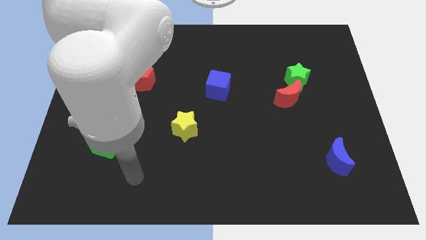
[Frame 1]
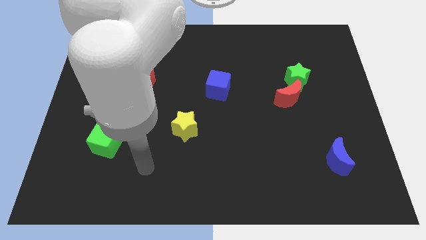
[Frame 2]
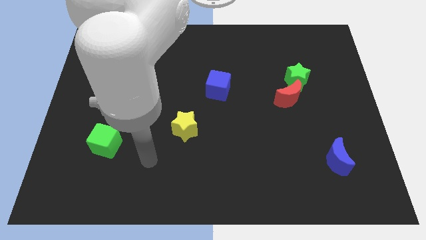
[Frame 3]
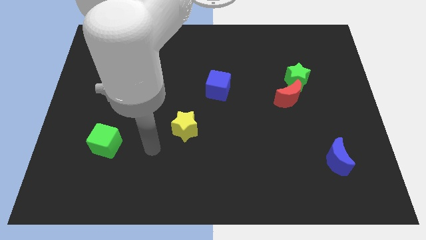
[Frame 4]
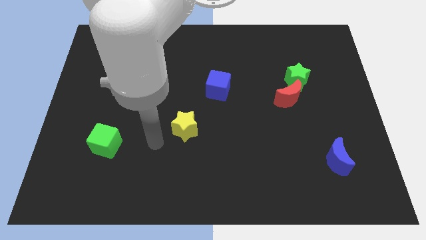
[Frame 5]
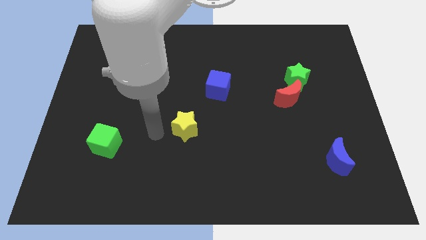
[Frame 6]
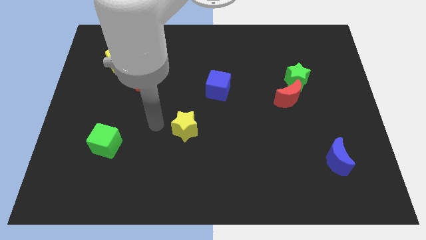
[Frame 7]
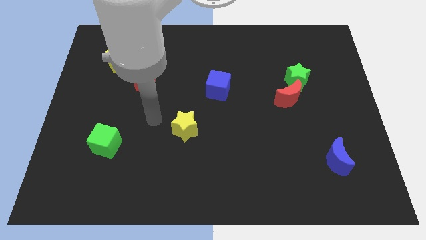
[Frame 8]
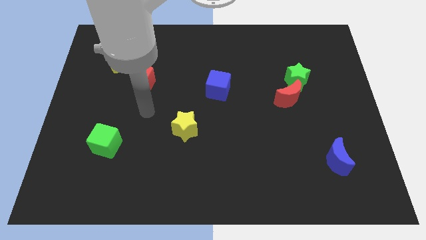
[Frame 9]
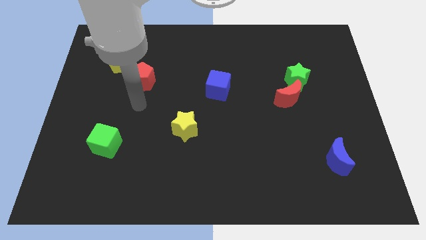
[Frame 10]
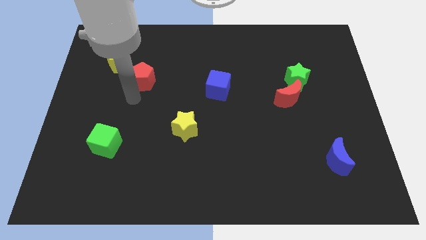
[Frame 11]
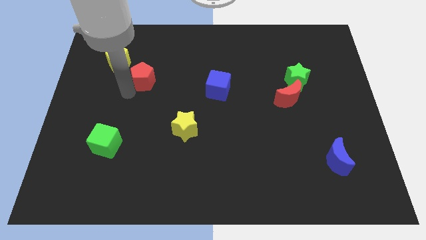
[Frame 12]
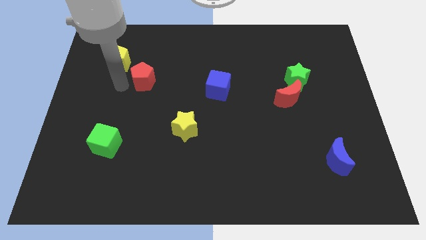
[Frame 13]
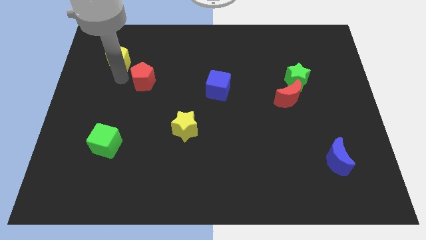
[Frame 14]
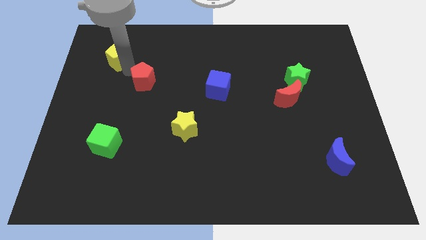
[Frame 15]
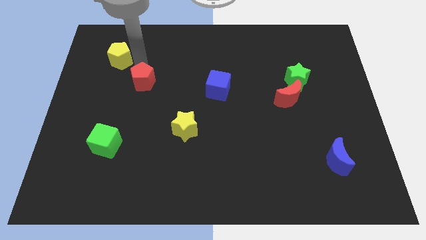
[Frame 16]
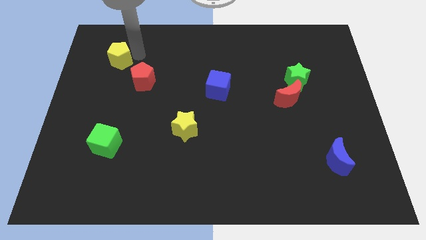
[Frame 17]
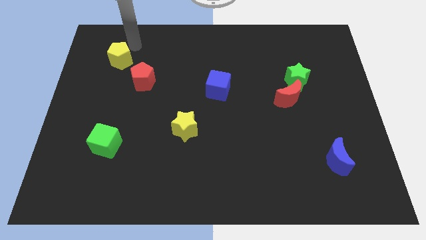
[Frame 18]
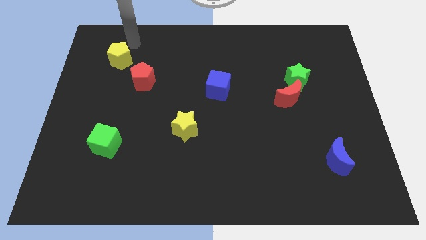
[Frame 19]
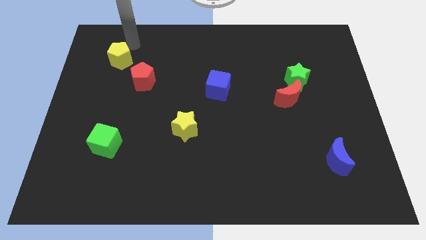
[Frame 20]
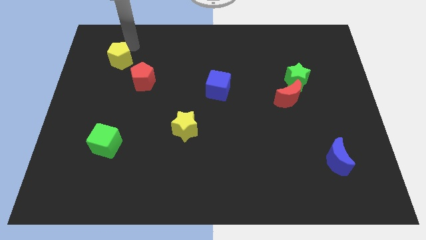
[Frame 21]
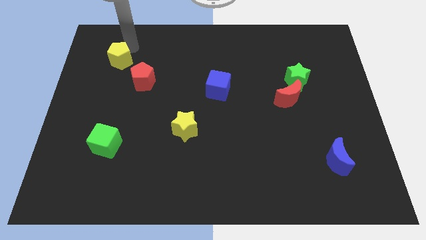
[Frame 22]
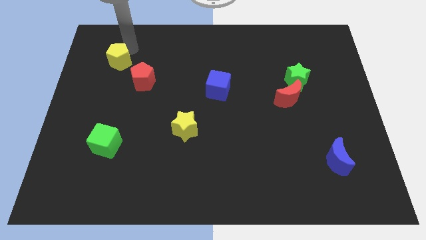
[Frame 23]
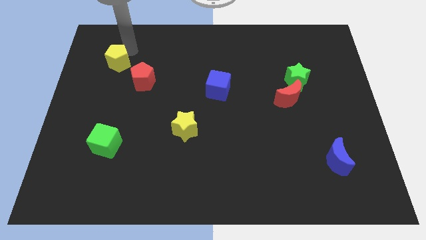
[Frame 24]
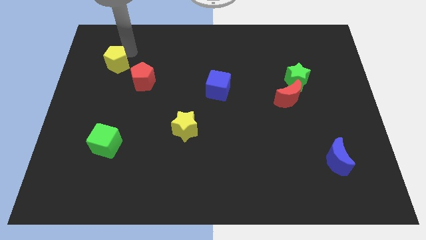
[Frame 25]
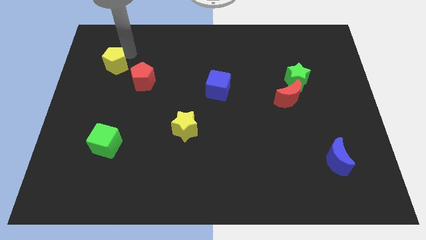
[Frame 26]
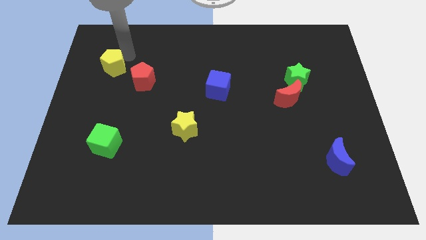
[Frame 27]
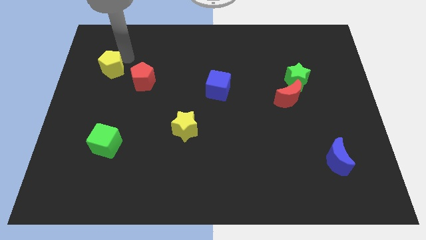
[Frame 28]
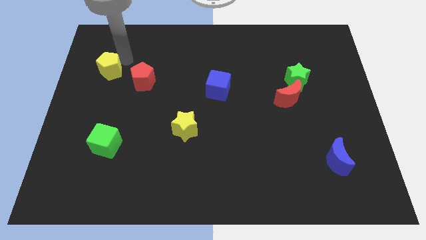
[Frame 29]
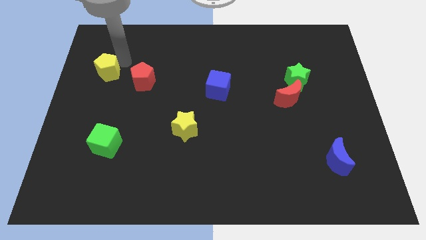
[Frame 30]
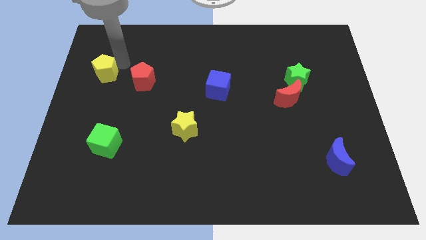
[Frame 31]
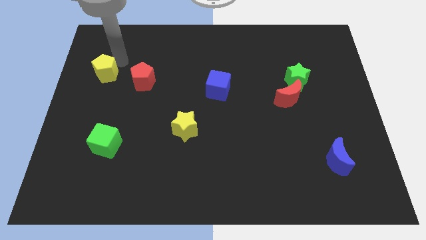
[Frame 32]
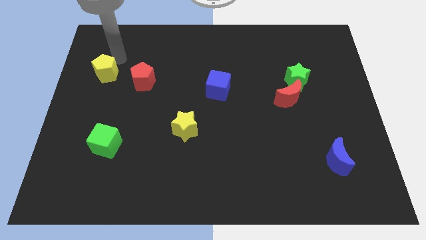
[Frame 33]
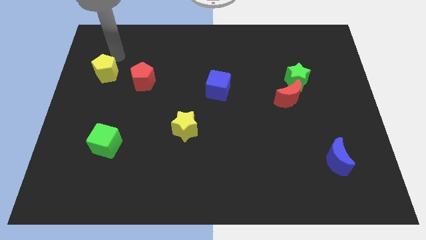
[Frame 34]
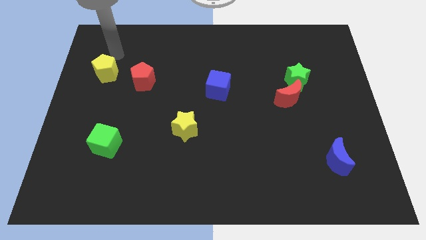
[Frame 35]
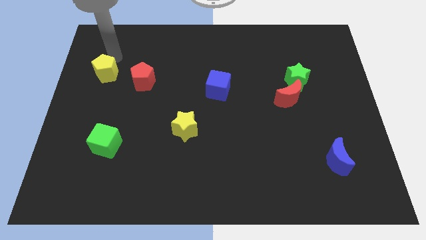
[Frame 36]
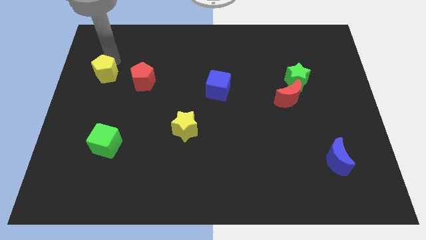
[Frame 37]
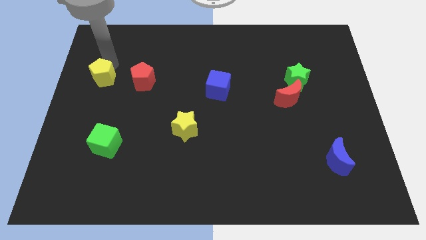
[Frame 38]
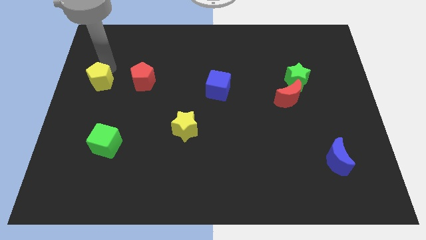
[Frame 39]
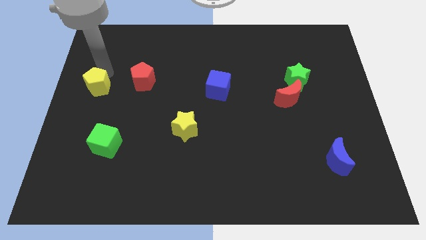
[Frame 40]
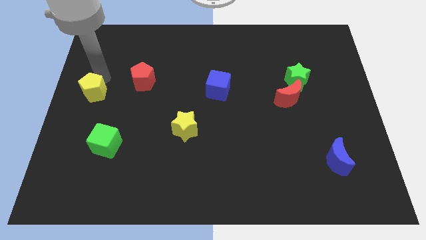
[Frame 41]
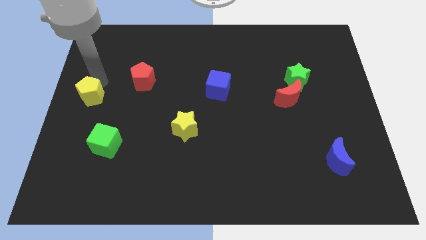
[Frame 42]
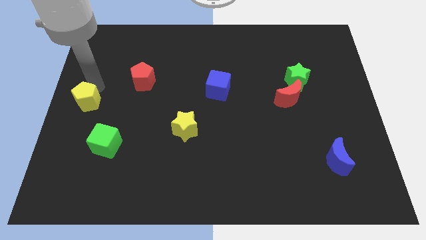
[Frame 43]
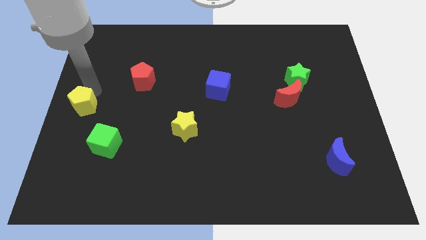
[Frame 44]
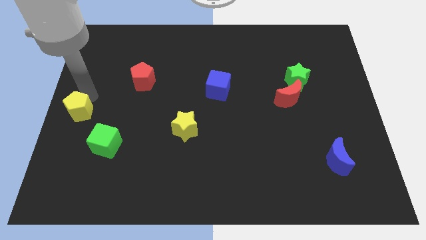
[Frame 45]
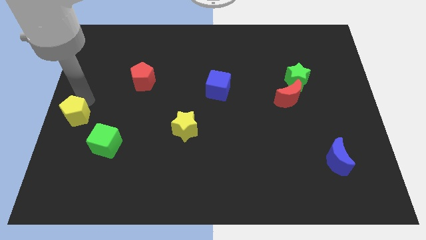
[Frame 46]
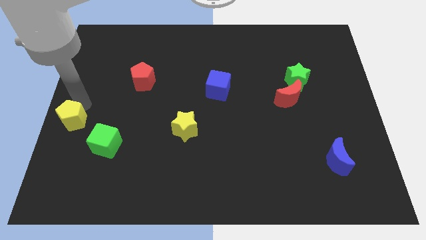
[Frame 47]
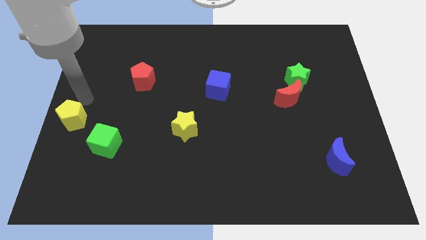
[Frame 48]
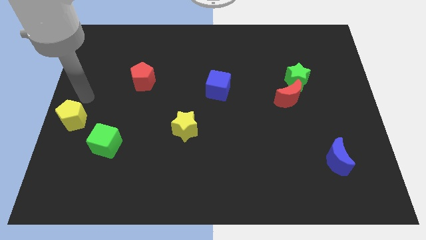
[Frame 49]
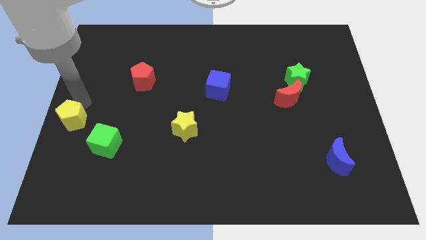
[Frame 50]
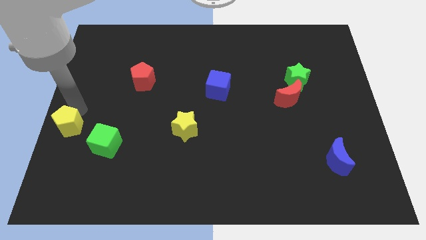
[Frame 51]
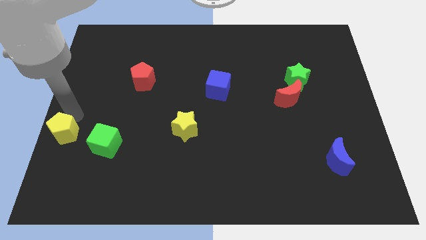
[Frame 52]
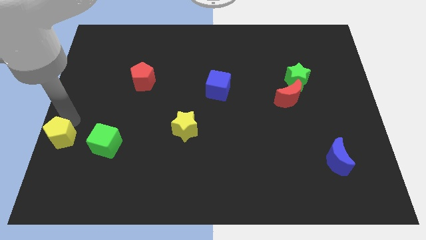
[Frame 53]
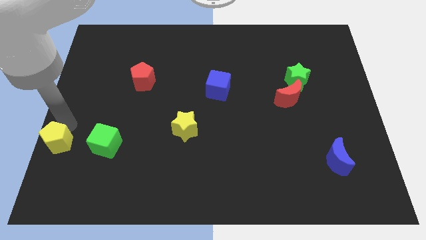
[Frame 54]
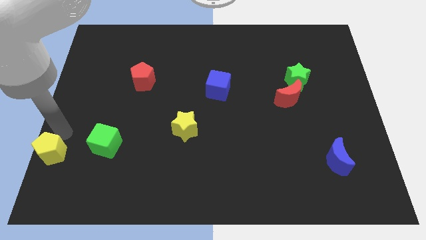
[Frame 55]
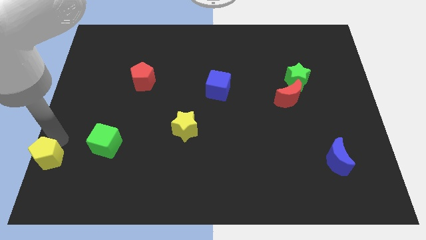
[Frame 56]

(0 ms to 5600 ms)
push the yellow pentagon to the bottom left
